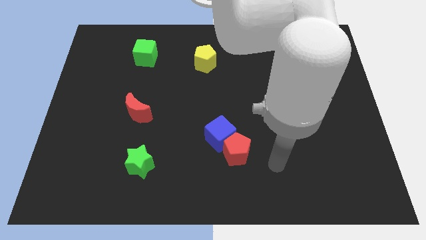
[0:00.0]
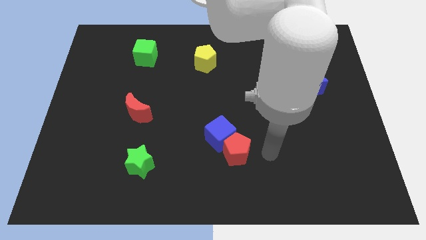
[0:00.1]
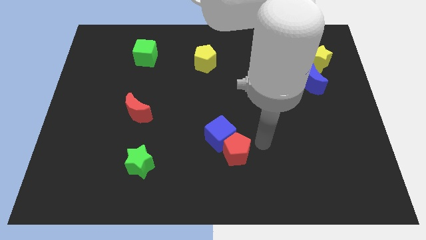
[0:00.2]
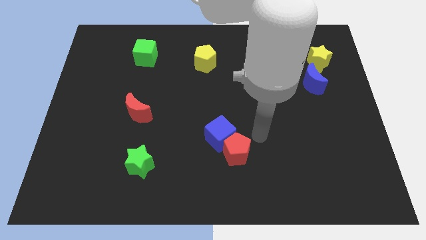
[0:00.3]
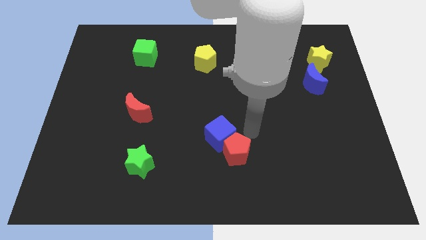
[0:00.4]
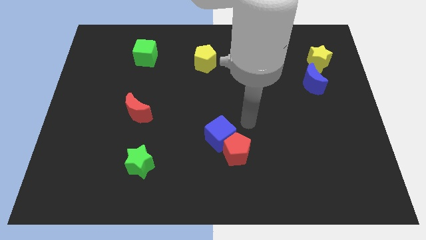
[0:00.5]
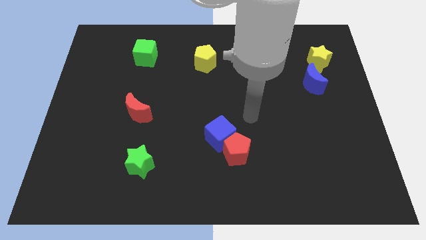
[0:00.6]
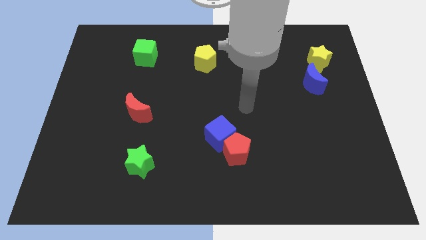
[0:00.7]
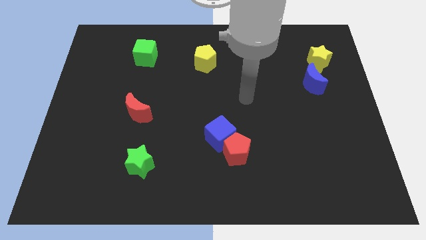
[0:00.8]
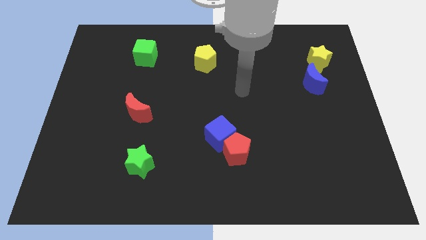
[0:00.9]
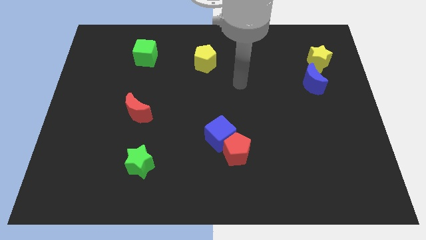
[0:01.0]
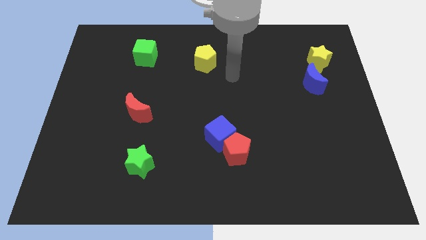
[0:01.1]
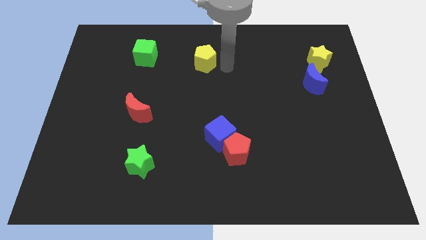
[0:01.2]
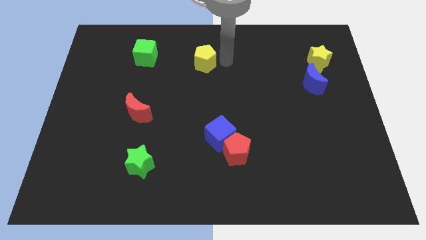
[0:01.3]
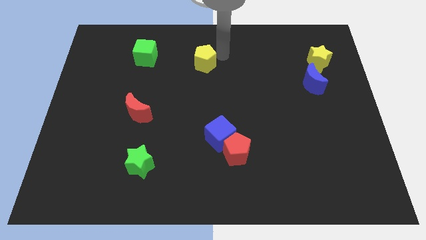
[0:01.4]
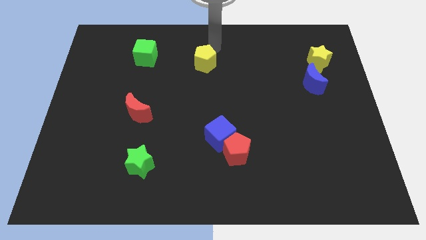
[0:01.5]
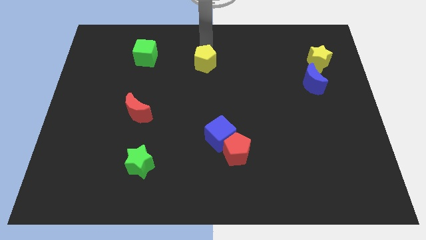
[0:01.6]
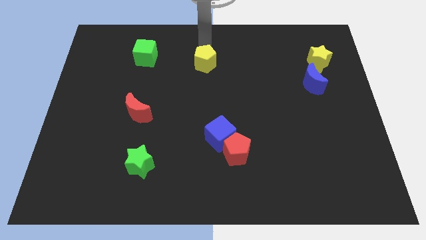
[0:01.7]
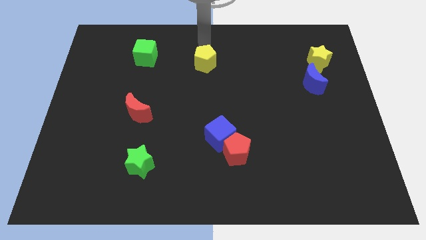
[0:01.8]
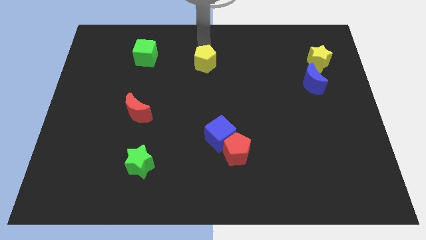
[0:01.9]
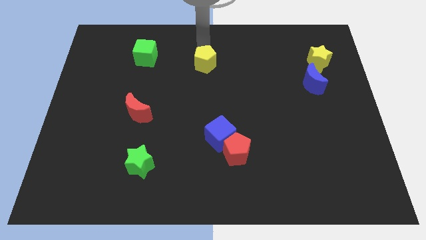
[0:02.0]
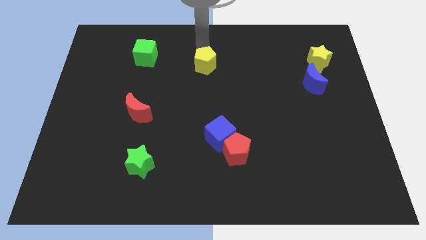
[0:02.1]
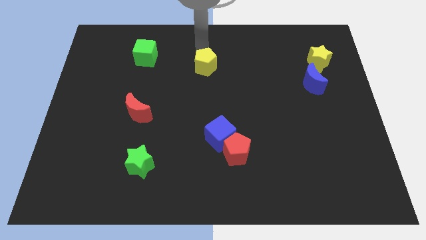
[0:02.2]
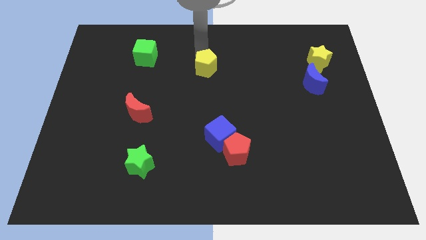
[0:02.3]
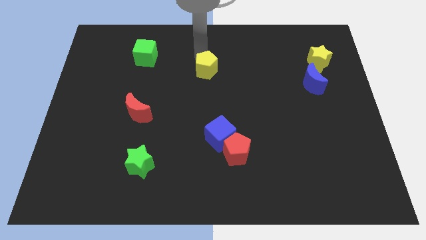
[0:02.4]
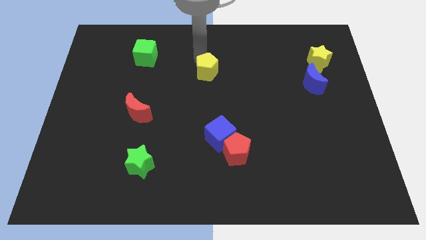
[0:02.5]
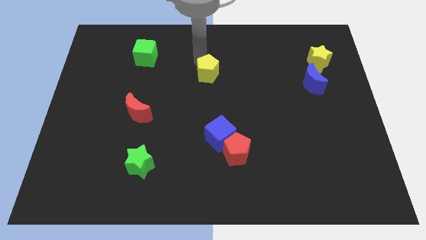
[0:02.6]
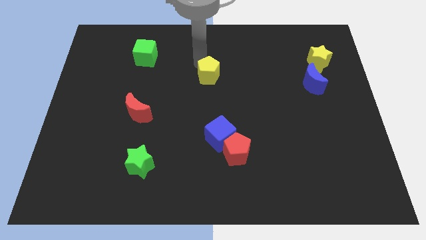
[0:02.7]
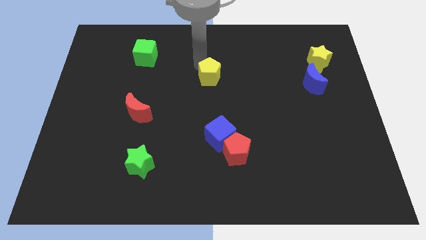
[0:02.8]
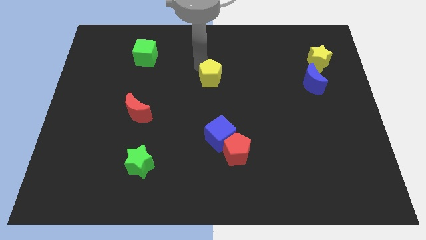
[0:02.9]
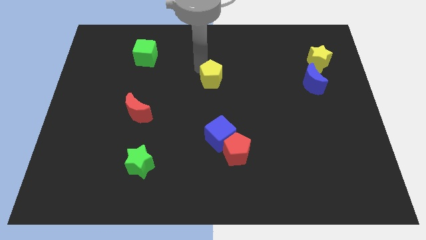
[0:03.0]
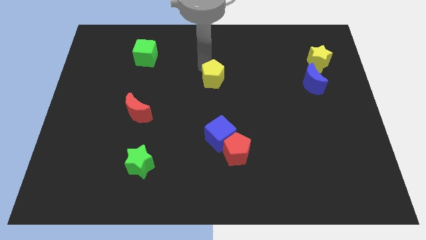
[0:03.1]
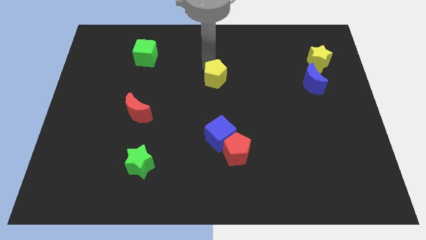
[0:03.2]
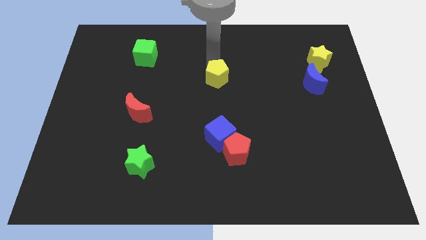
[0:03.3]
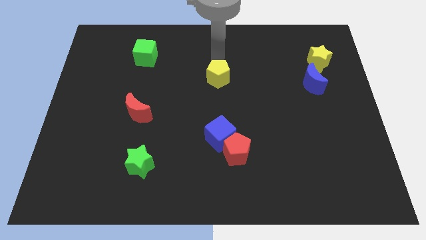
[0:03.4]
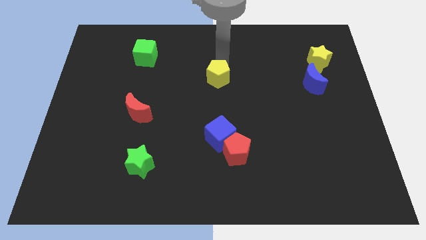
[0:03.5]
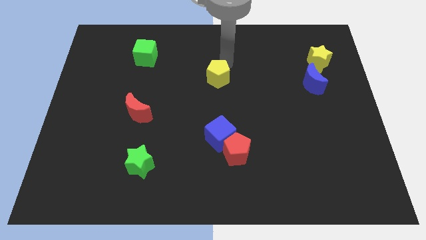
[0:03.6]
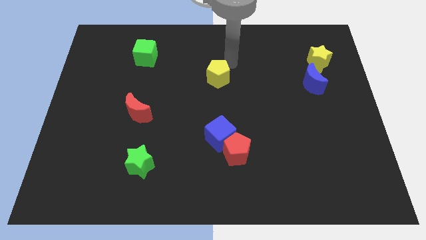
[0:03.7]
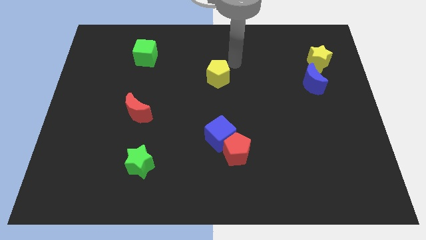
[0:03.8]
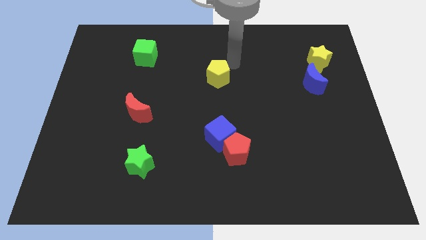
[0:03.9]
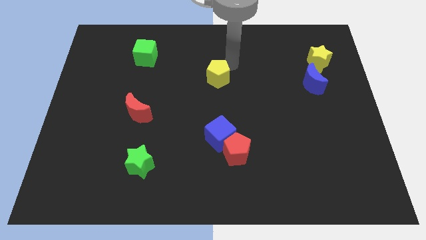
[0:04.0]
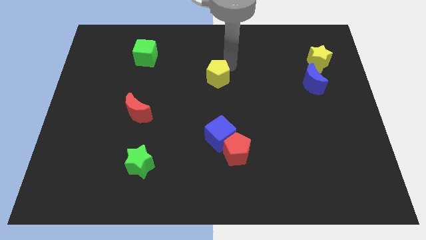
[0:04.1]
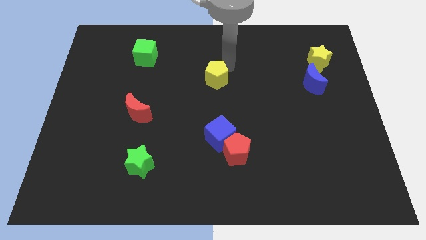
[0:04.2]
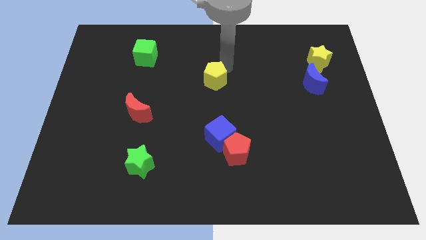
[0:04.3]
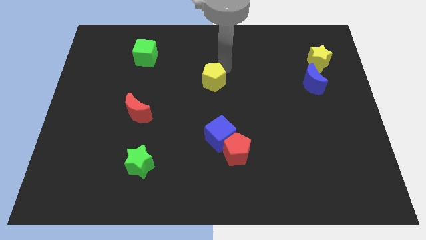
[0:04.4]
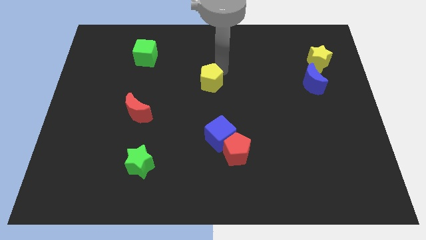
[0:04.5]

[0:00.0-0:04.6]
slightly slide the yellow pentagon downwards

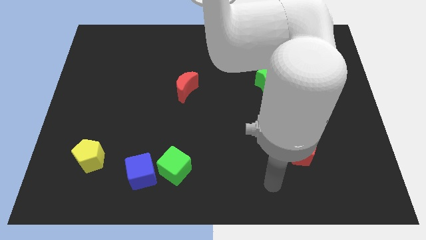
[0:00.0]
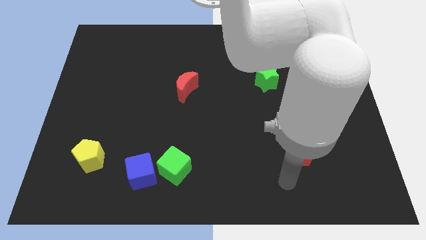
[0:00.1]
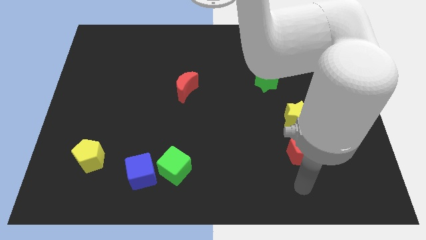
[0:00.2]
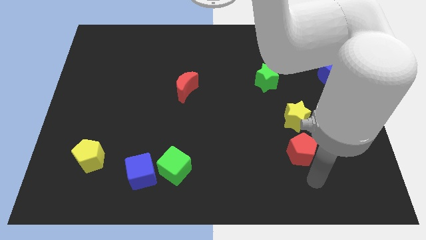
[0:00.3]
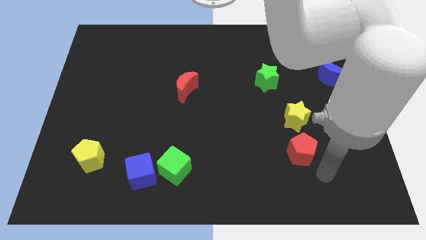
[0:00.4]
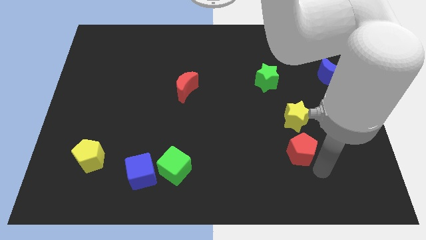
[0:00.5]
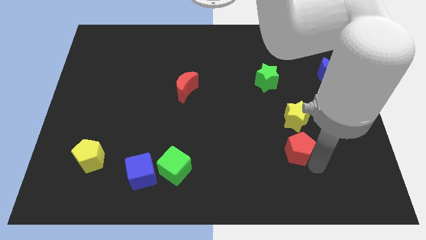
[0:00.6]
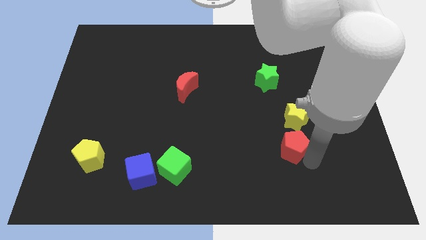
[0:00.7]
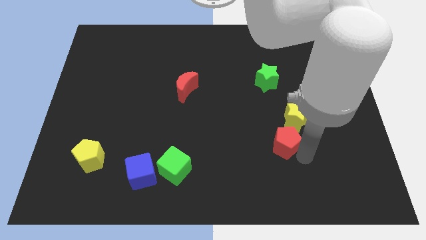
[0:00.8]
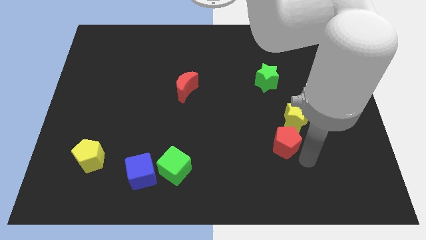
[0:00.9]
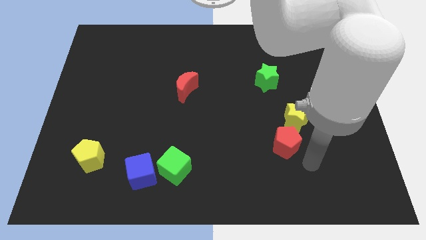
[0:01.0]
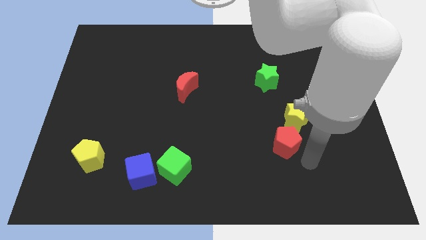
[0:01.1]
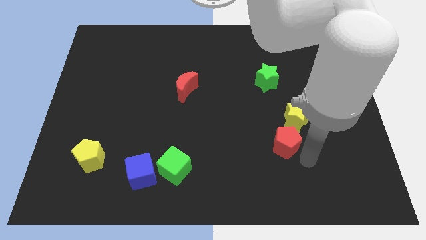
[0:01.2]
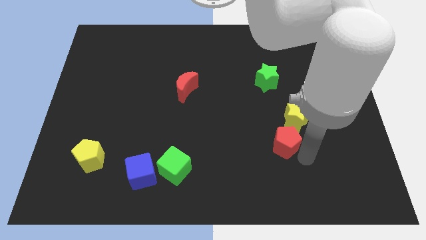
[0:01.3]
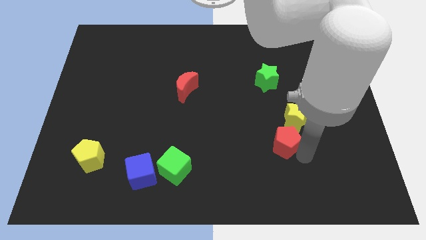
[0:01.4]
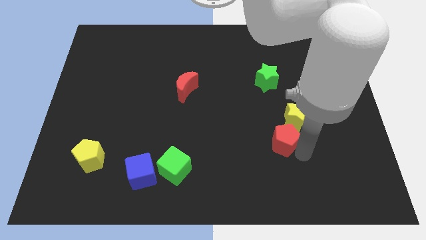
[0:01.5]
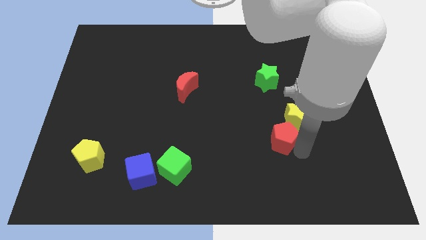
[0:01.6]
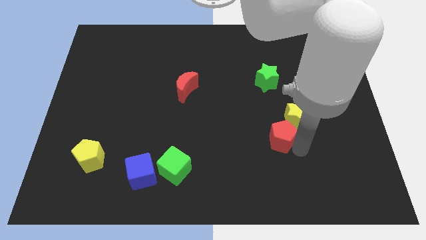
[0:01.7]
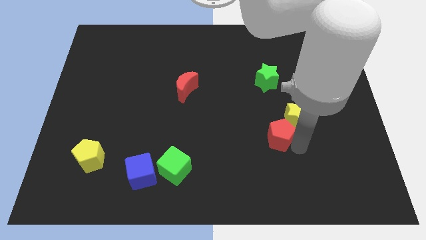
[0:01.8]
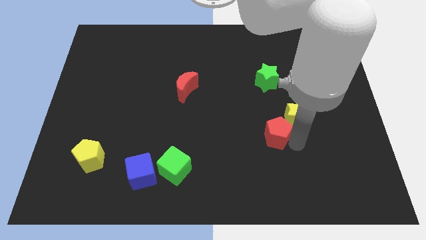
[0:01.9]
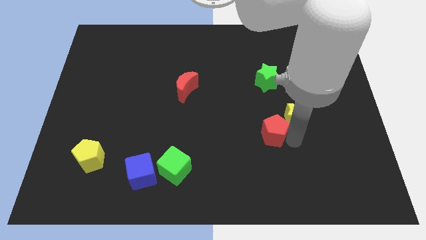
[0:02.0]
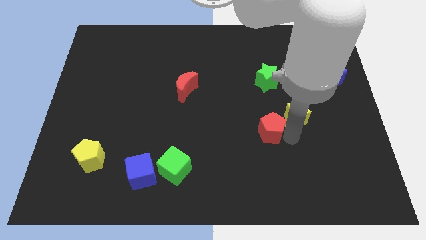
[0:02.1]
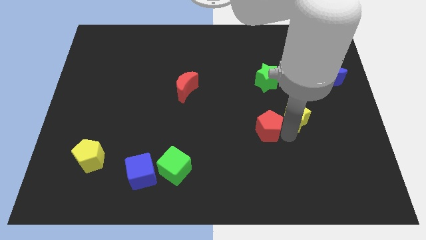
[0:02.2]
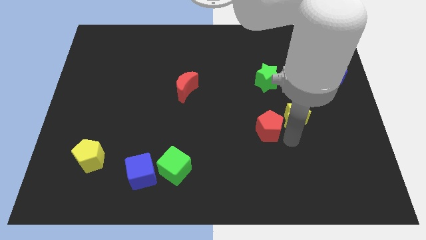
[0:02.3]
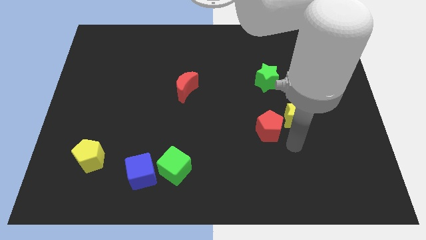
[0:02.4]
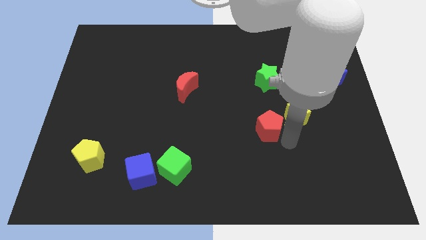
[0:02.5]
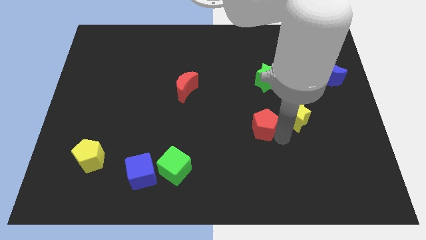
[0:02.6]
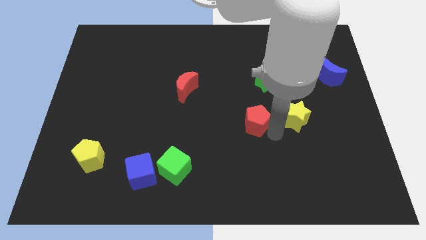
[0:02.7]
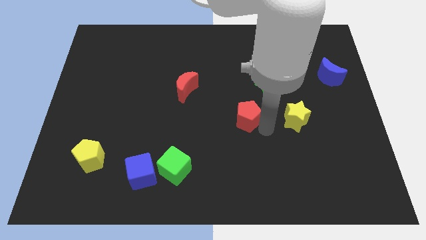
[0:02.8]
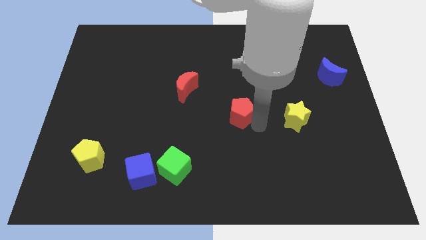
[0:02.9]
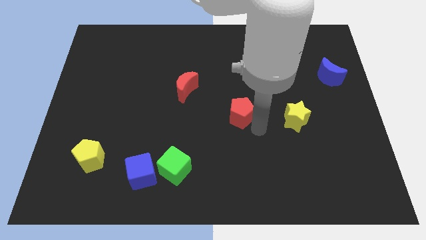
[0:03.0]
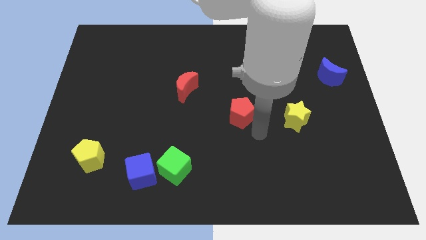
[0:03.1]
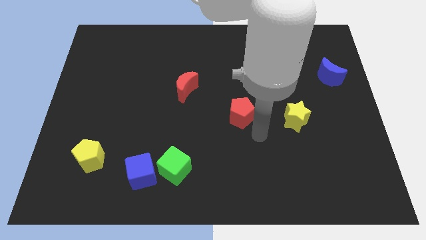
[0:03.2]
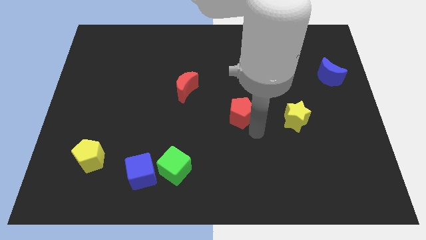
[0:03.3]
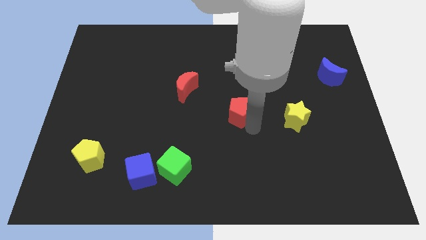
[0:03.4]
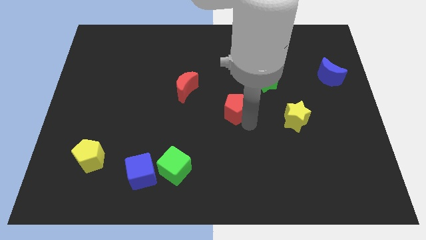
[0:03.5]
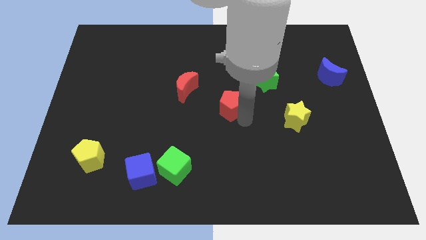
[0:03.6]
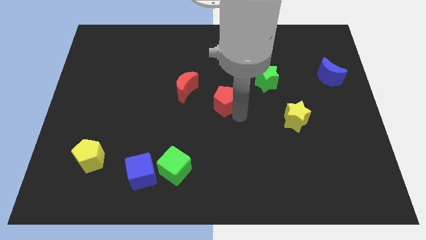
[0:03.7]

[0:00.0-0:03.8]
move the red pentagon up and left diagonally
